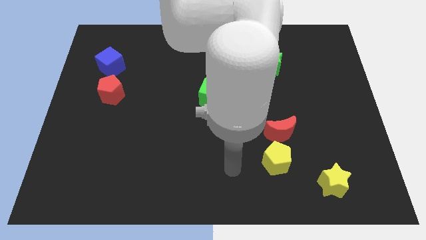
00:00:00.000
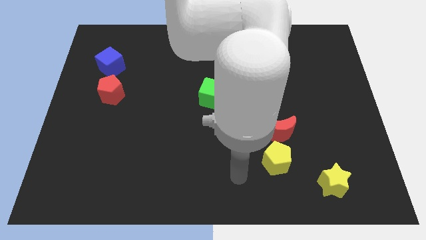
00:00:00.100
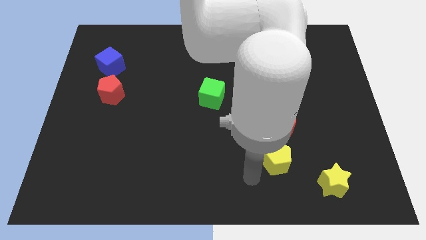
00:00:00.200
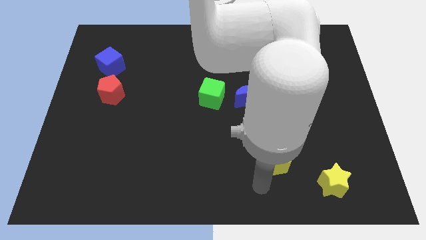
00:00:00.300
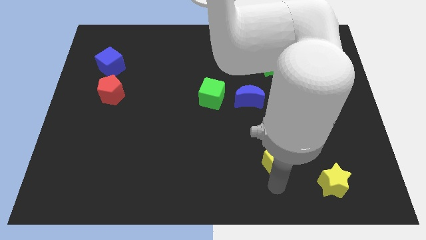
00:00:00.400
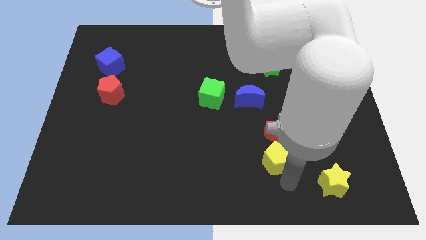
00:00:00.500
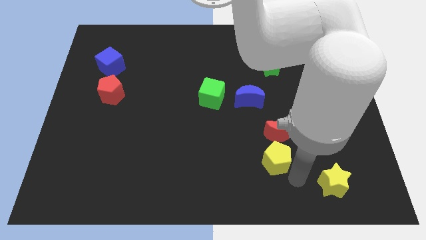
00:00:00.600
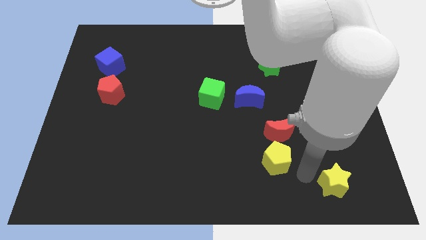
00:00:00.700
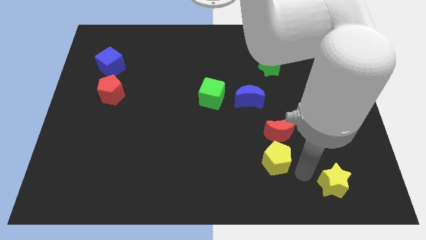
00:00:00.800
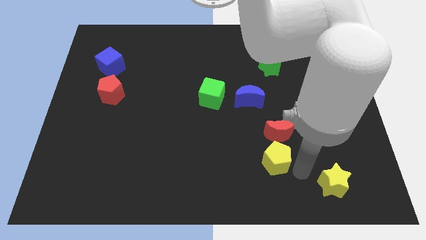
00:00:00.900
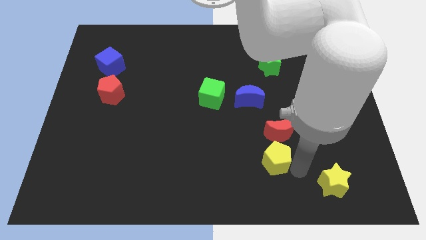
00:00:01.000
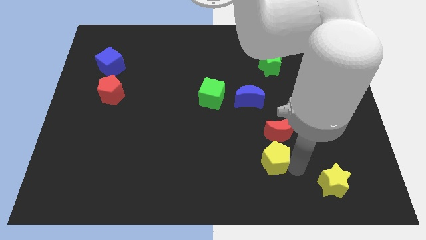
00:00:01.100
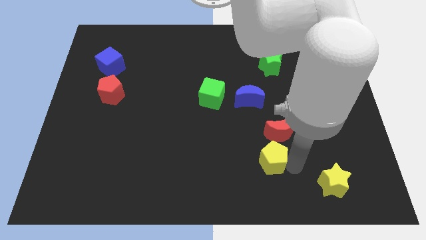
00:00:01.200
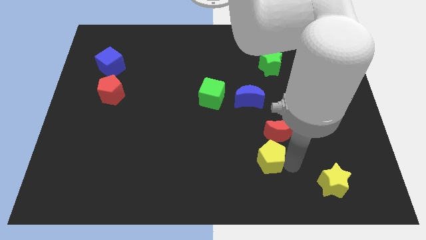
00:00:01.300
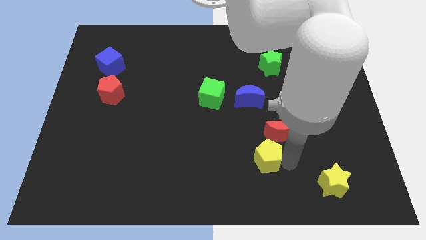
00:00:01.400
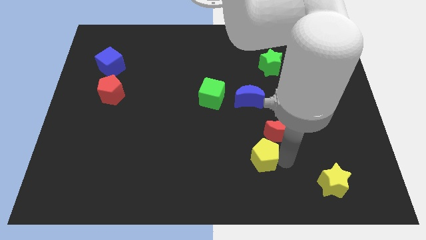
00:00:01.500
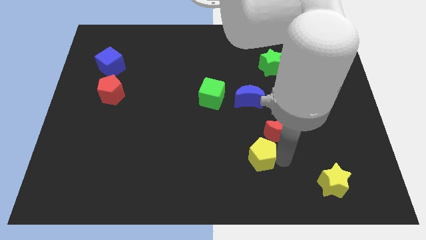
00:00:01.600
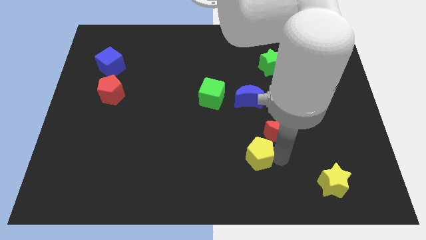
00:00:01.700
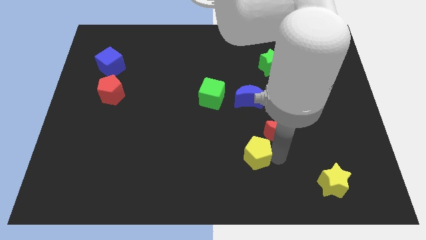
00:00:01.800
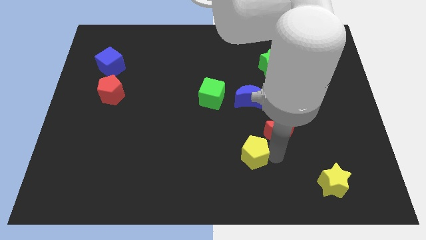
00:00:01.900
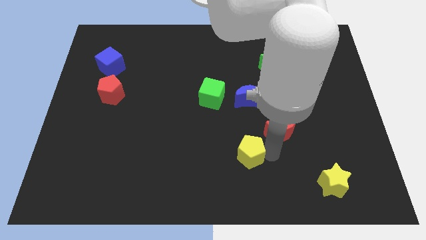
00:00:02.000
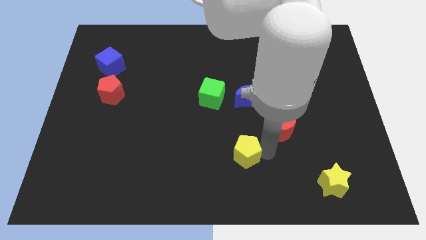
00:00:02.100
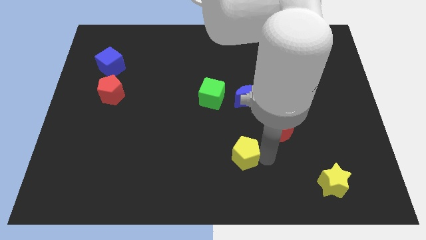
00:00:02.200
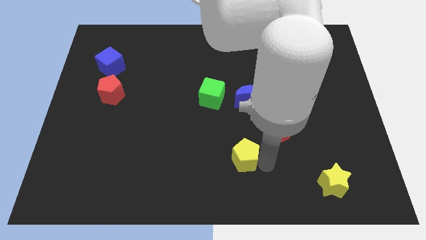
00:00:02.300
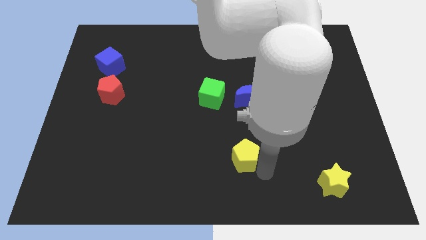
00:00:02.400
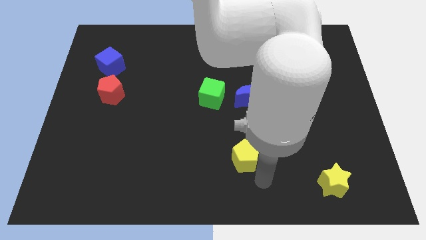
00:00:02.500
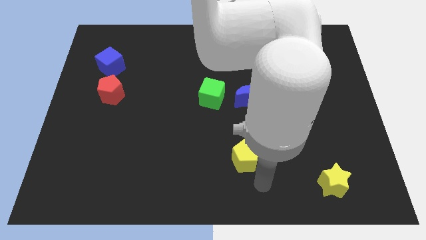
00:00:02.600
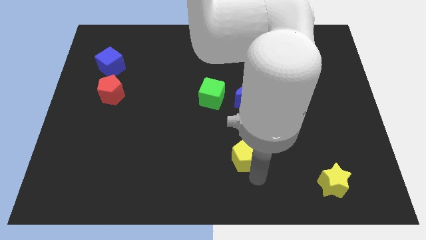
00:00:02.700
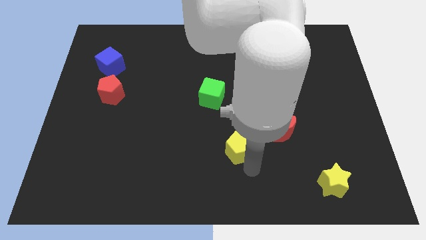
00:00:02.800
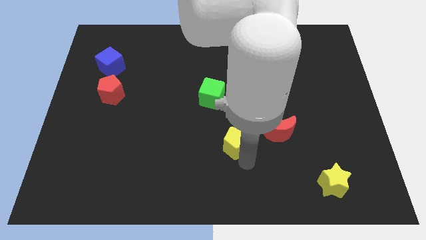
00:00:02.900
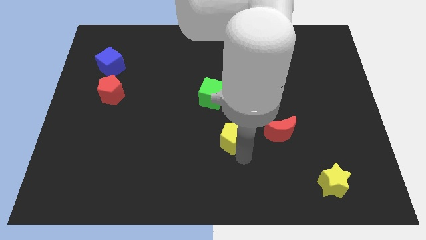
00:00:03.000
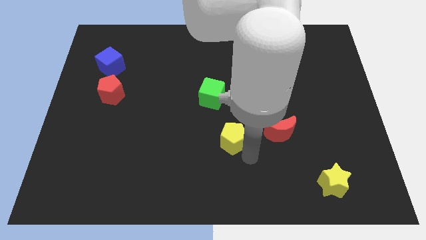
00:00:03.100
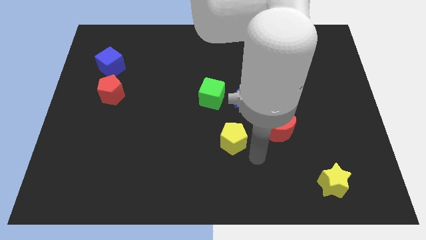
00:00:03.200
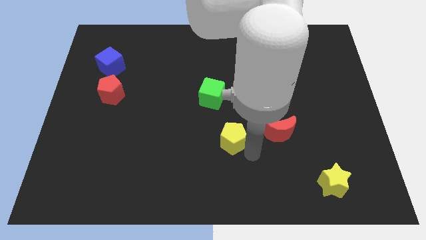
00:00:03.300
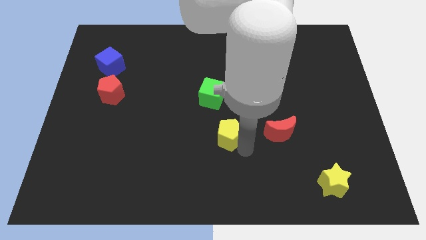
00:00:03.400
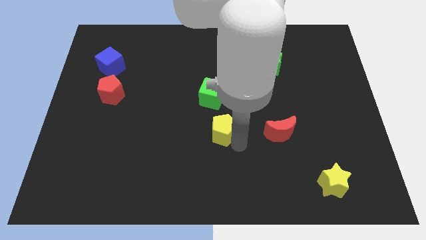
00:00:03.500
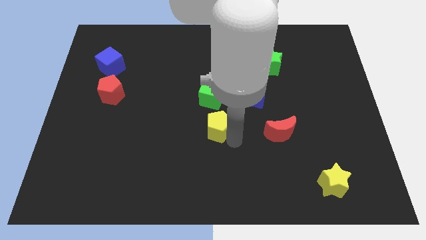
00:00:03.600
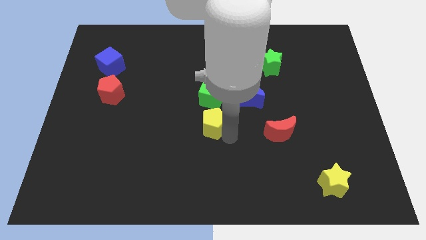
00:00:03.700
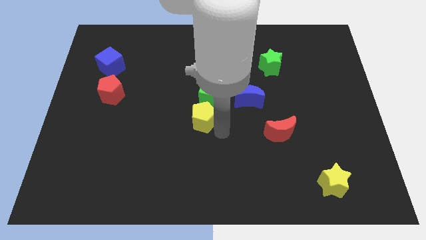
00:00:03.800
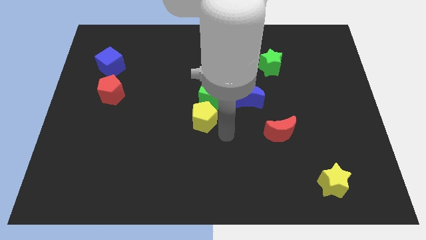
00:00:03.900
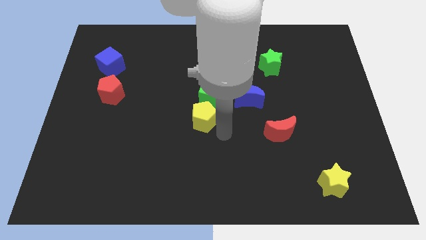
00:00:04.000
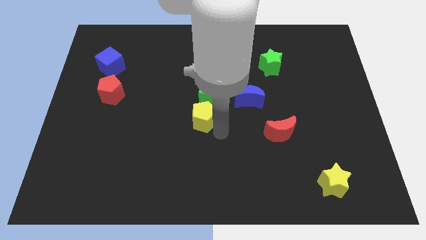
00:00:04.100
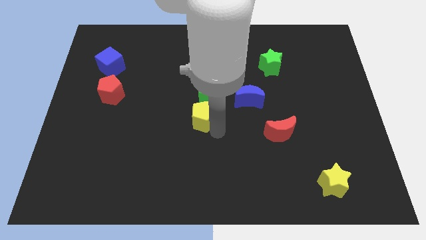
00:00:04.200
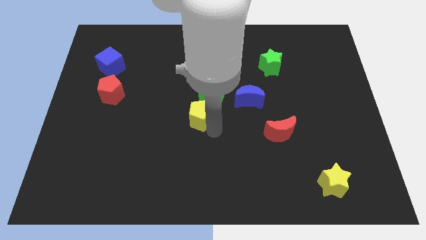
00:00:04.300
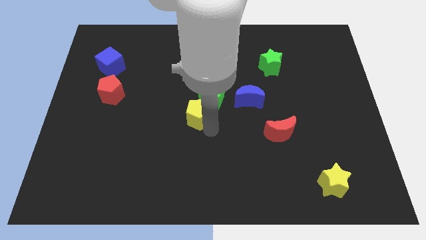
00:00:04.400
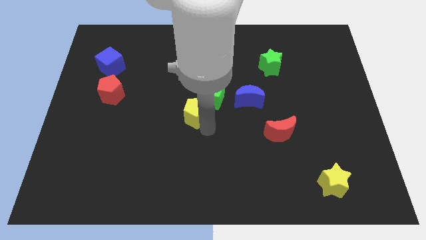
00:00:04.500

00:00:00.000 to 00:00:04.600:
slide the yellow pentagon up and then left

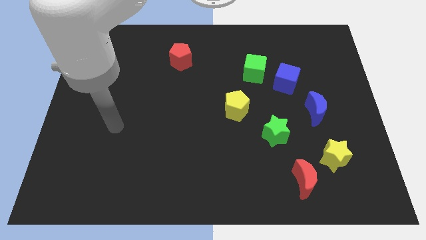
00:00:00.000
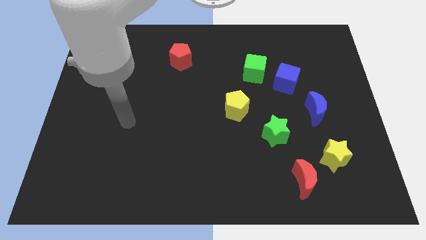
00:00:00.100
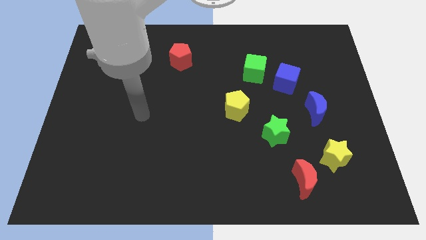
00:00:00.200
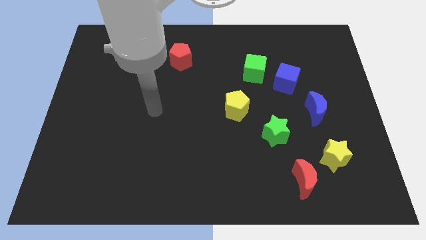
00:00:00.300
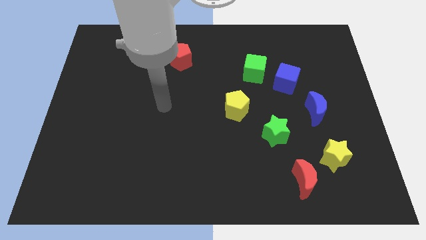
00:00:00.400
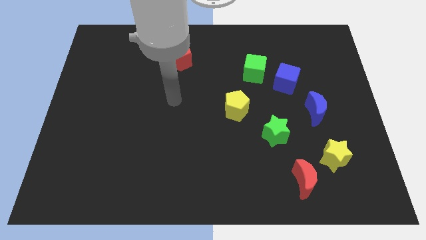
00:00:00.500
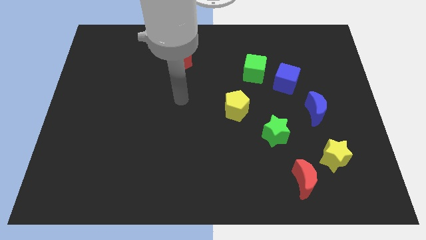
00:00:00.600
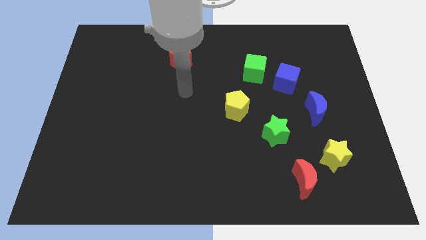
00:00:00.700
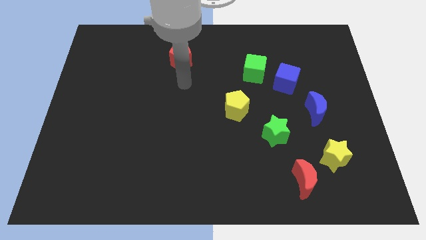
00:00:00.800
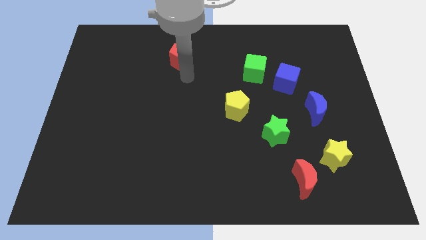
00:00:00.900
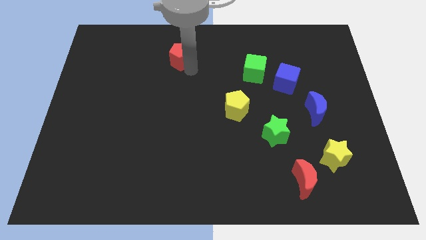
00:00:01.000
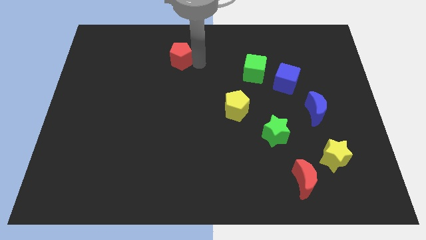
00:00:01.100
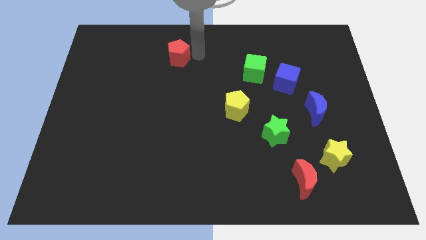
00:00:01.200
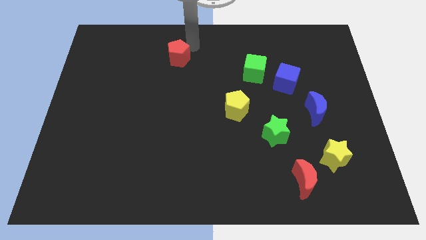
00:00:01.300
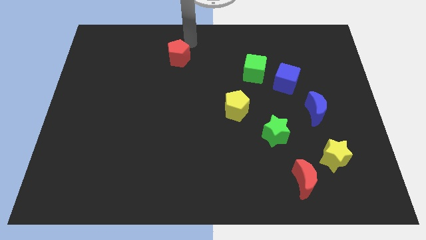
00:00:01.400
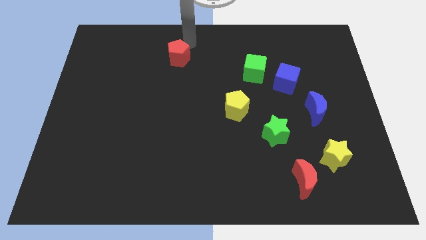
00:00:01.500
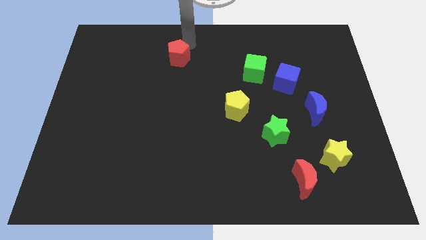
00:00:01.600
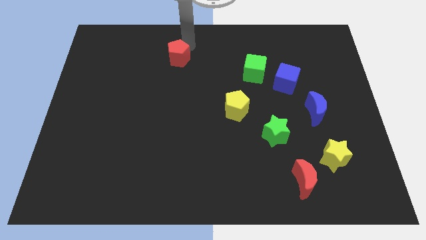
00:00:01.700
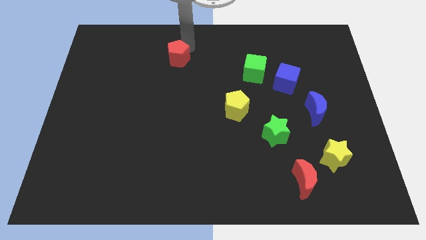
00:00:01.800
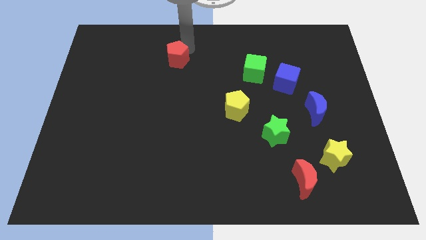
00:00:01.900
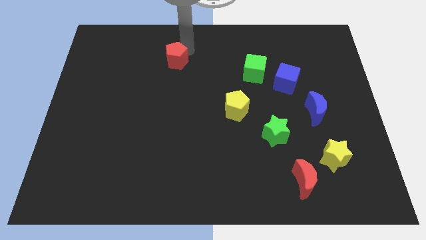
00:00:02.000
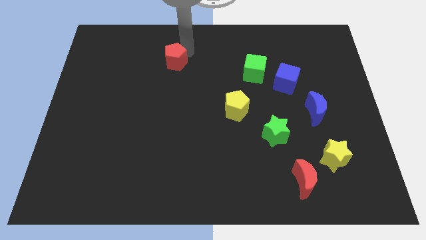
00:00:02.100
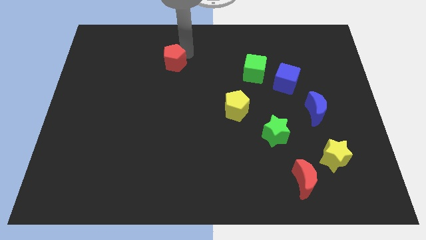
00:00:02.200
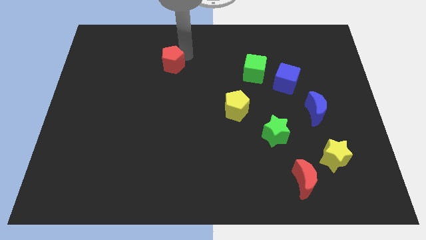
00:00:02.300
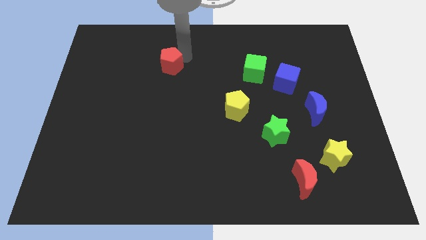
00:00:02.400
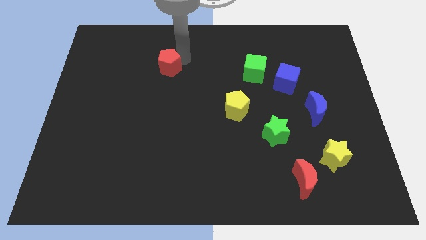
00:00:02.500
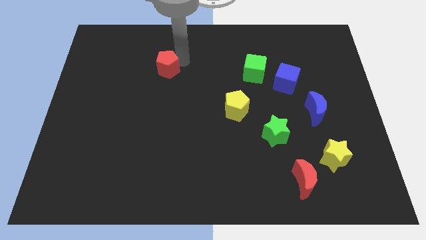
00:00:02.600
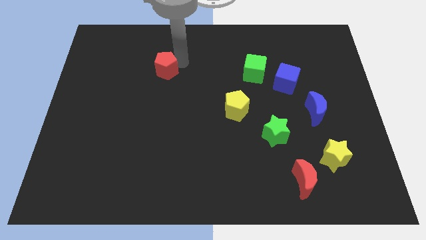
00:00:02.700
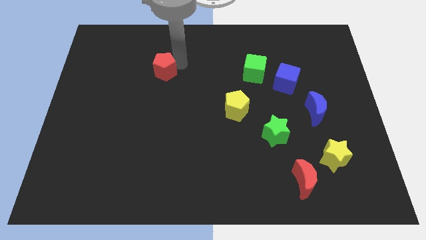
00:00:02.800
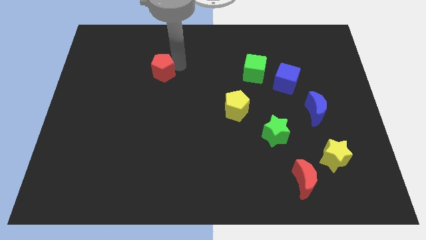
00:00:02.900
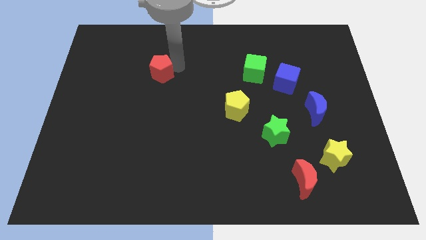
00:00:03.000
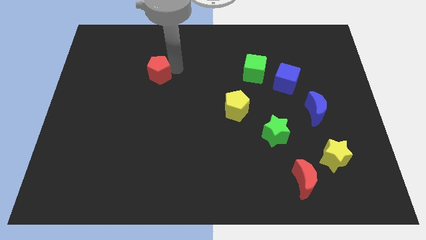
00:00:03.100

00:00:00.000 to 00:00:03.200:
move the red pentagon downwards and left diagonally a bit

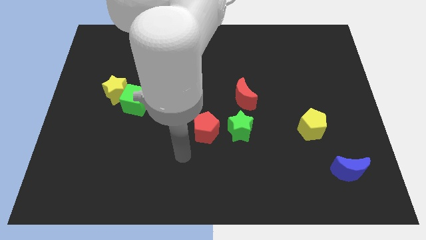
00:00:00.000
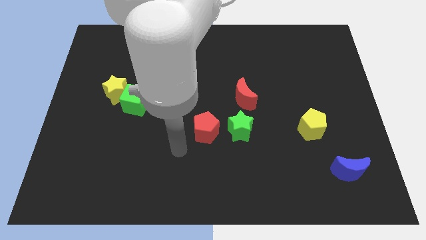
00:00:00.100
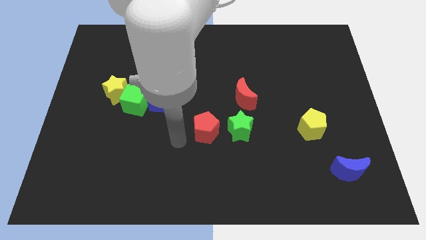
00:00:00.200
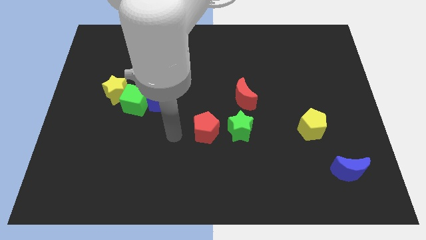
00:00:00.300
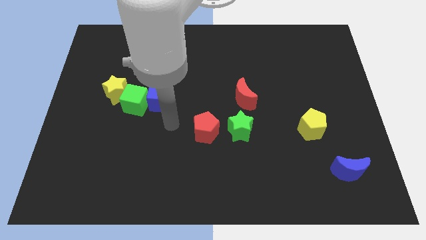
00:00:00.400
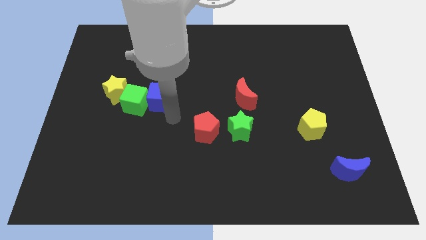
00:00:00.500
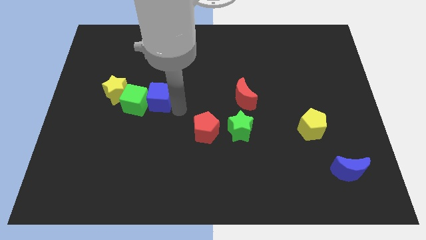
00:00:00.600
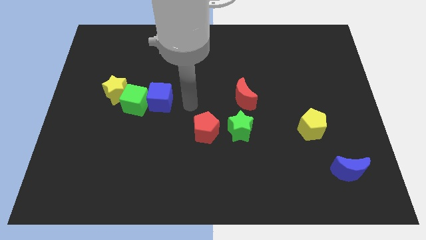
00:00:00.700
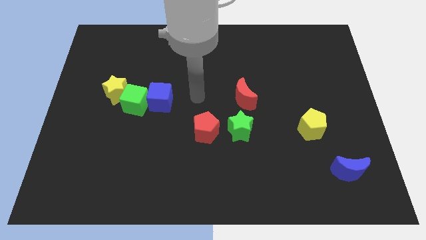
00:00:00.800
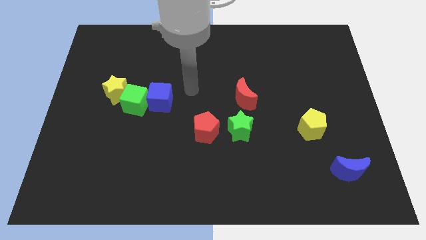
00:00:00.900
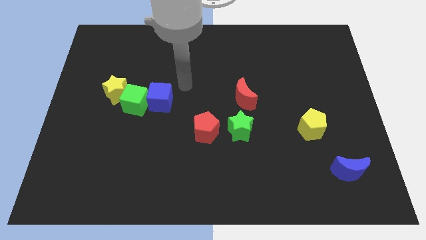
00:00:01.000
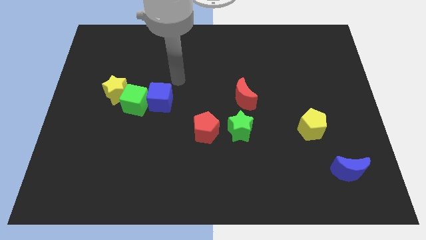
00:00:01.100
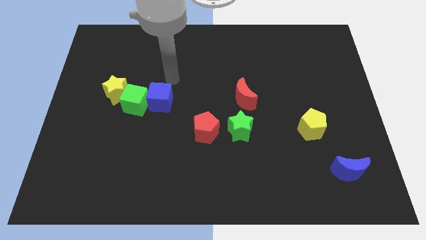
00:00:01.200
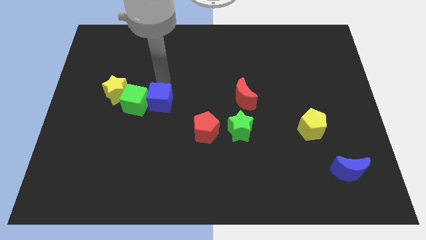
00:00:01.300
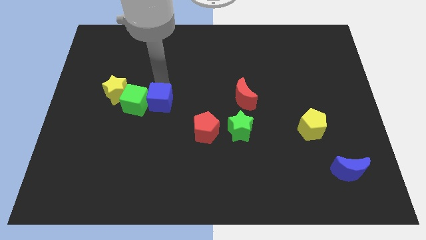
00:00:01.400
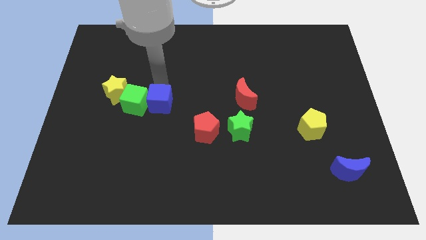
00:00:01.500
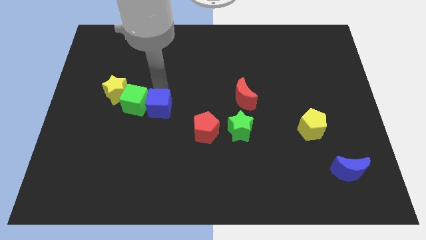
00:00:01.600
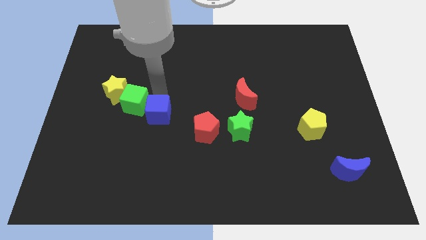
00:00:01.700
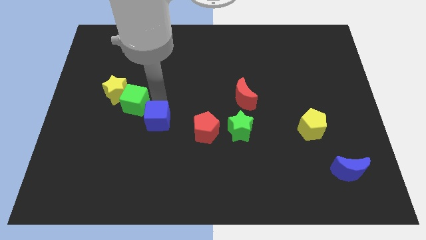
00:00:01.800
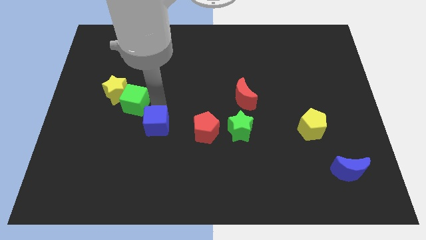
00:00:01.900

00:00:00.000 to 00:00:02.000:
push the blue cube a little down
